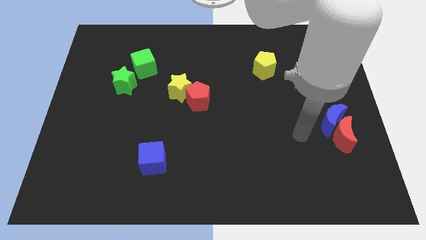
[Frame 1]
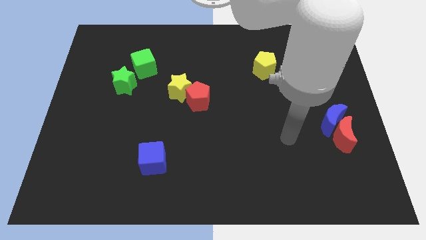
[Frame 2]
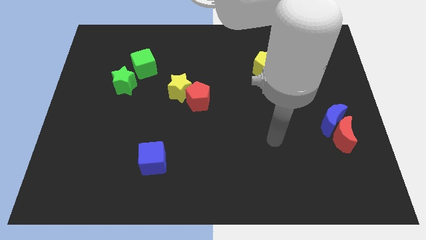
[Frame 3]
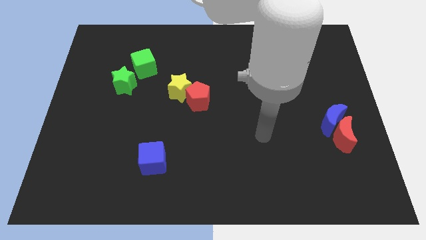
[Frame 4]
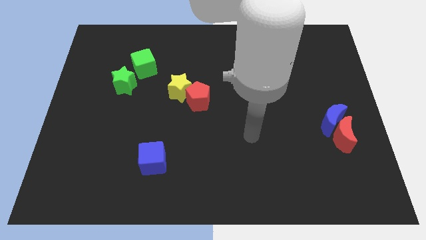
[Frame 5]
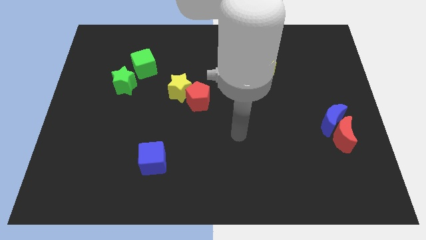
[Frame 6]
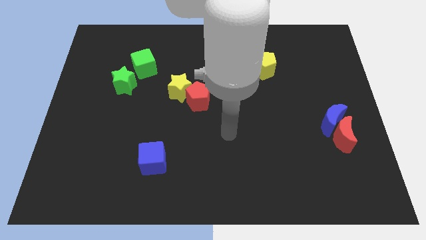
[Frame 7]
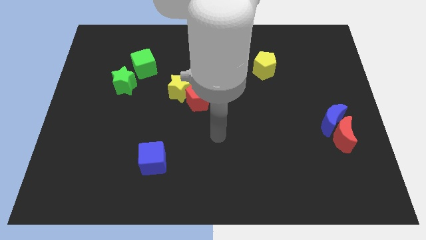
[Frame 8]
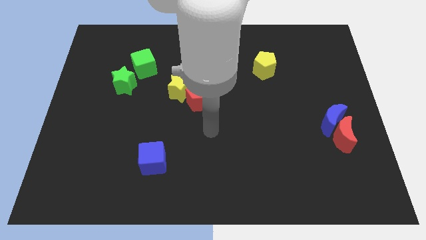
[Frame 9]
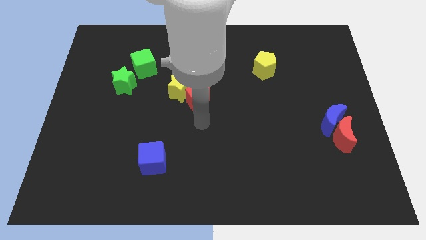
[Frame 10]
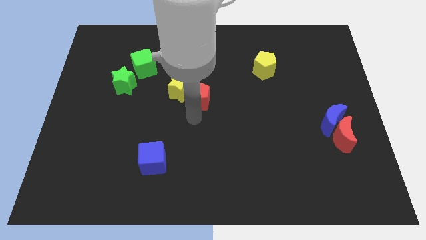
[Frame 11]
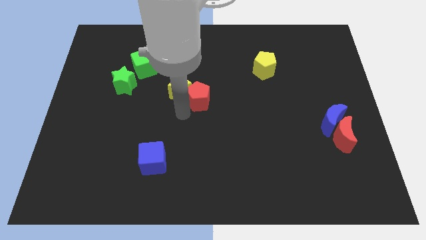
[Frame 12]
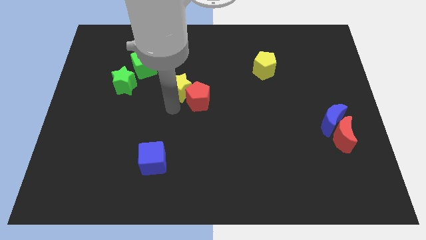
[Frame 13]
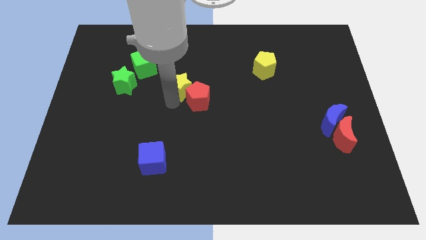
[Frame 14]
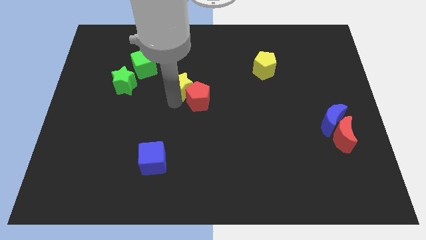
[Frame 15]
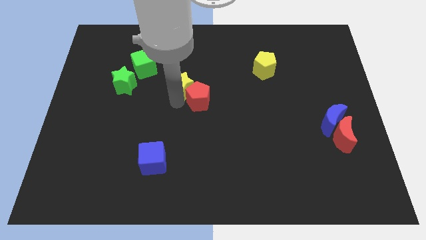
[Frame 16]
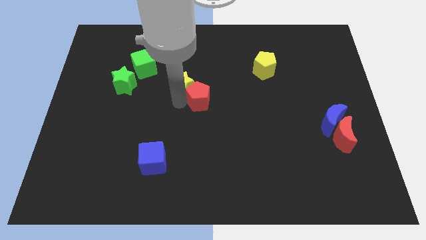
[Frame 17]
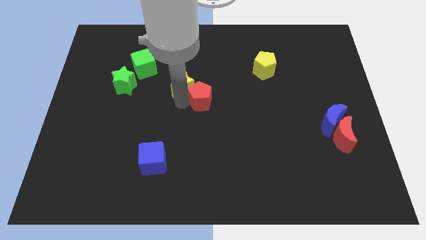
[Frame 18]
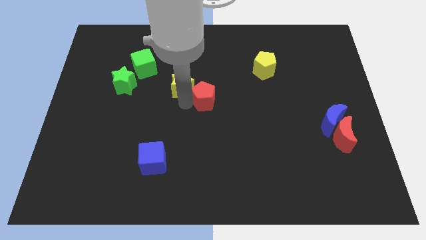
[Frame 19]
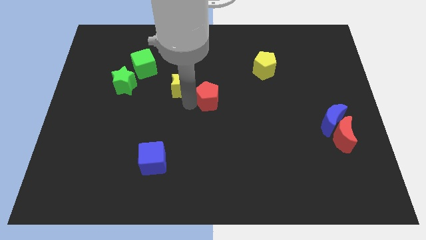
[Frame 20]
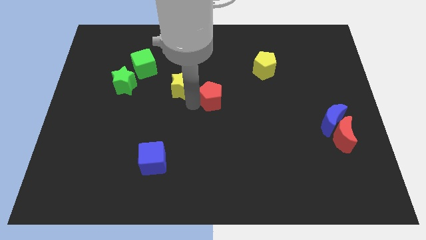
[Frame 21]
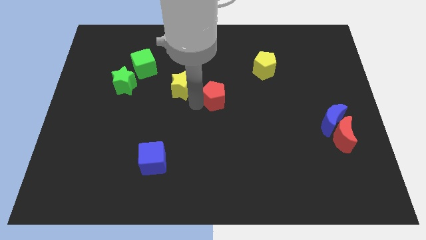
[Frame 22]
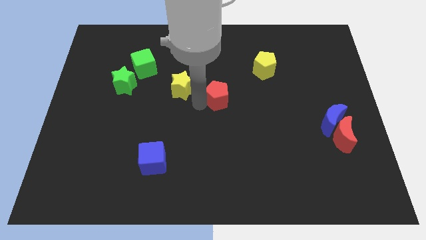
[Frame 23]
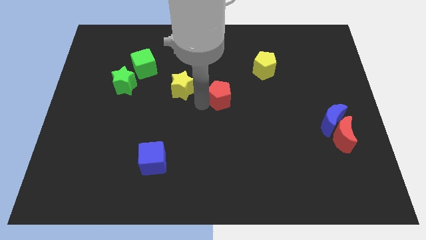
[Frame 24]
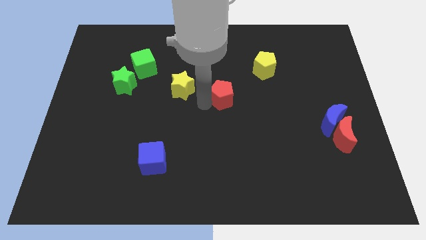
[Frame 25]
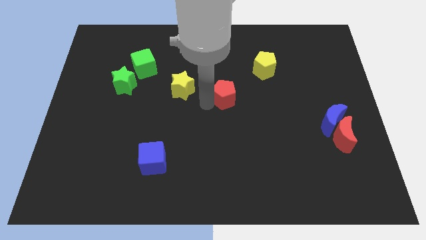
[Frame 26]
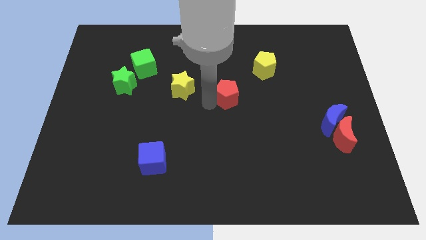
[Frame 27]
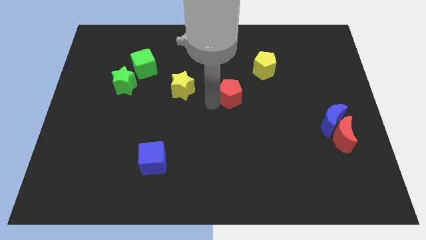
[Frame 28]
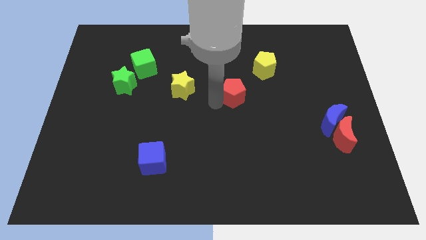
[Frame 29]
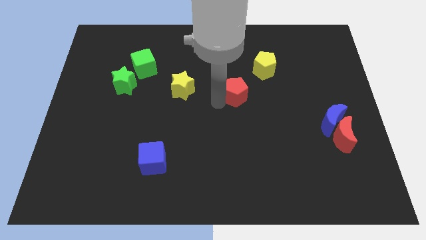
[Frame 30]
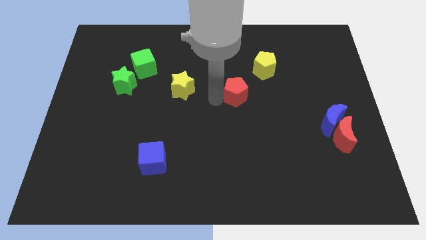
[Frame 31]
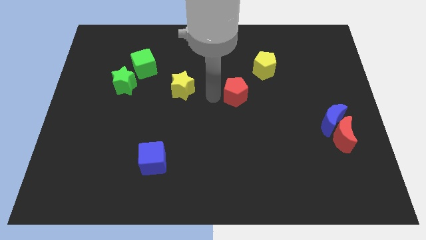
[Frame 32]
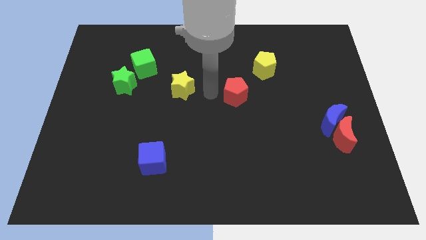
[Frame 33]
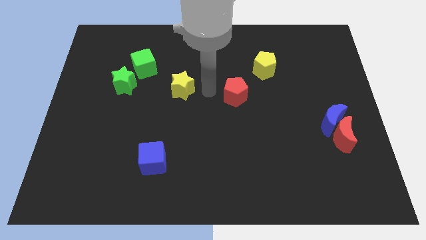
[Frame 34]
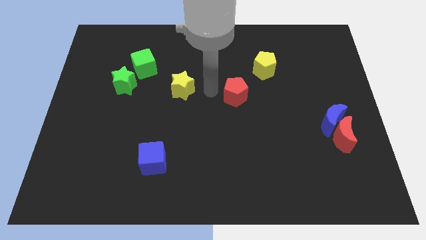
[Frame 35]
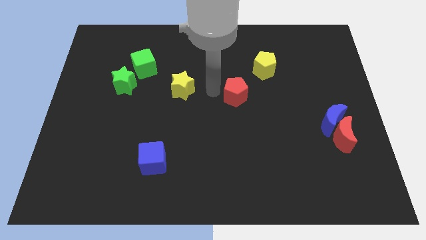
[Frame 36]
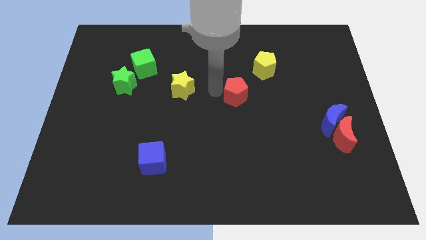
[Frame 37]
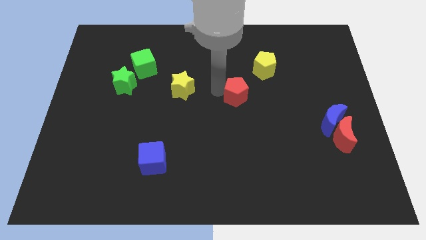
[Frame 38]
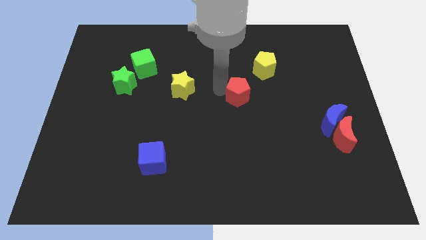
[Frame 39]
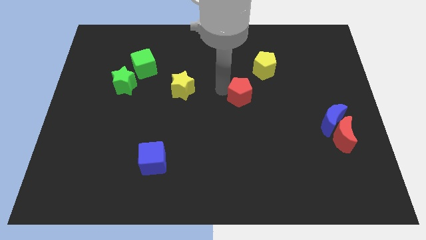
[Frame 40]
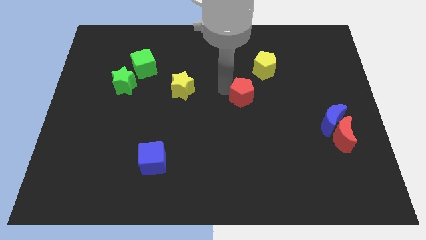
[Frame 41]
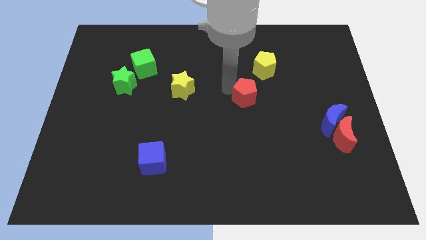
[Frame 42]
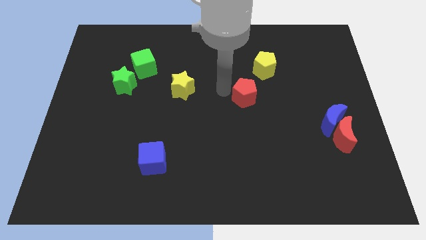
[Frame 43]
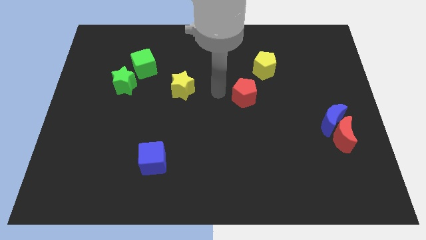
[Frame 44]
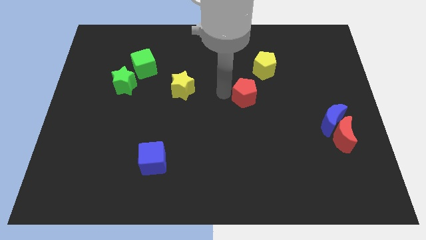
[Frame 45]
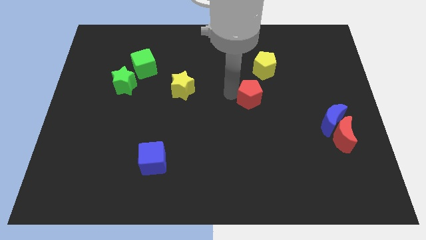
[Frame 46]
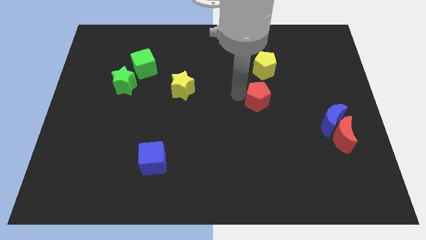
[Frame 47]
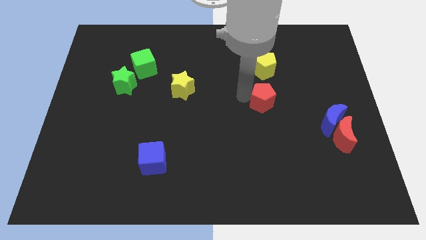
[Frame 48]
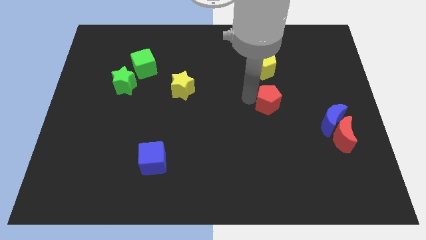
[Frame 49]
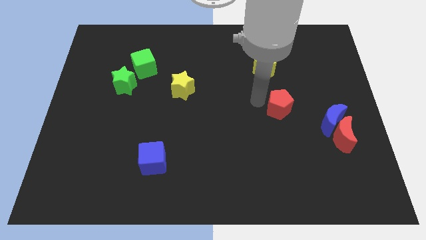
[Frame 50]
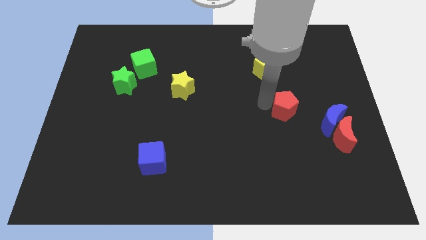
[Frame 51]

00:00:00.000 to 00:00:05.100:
slide the red pentagon right

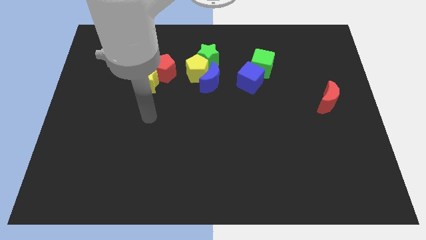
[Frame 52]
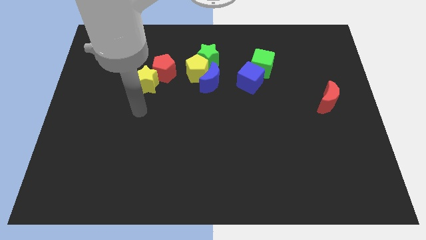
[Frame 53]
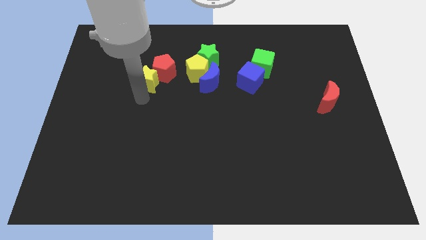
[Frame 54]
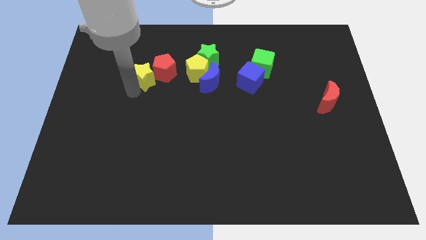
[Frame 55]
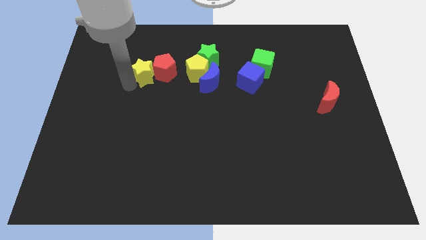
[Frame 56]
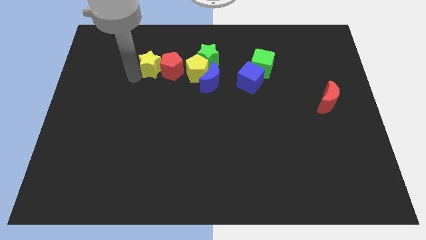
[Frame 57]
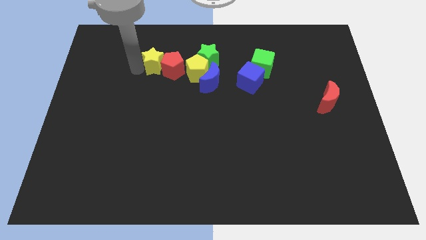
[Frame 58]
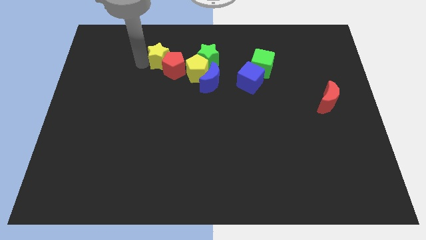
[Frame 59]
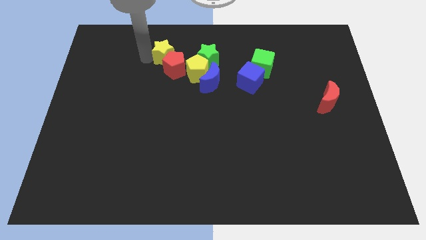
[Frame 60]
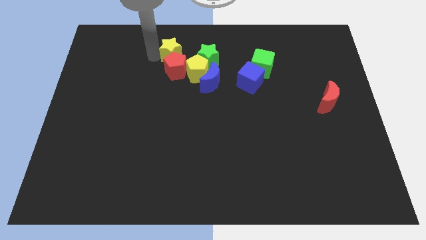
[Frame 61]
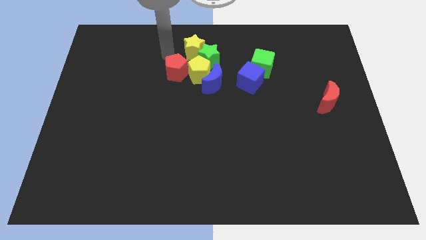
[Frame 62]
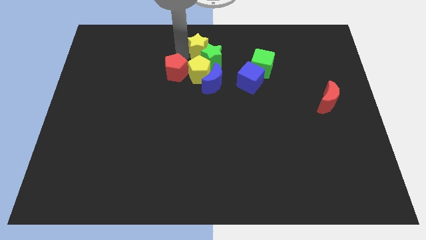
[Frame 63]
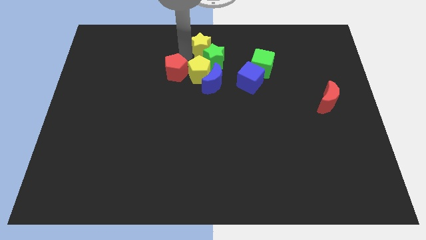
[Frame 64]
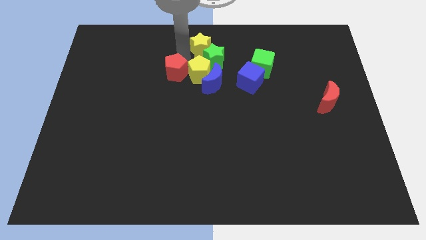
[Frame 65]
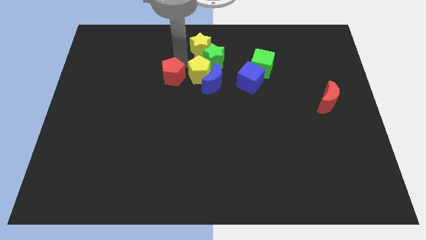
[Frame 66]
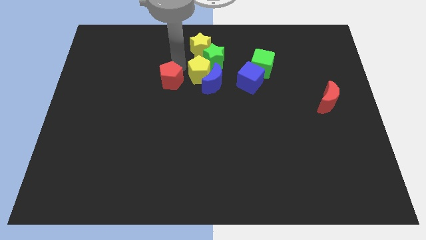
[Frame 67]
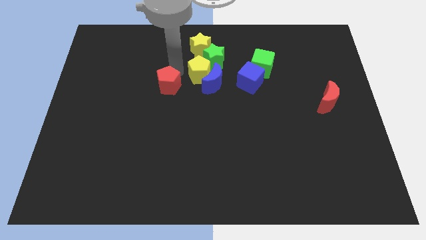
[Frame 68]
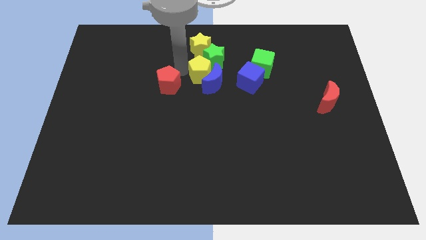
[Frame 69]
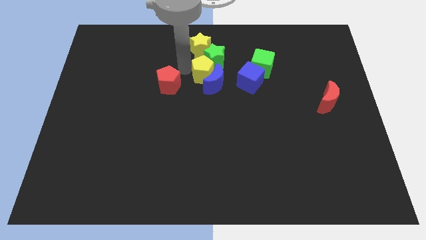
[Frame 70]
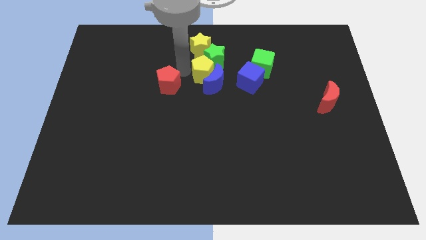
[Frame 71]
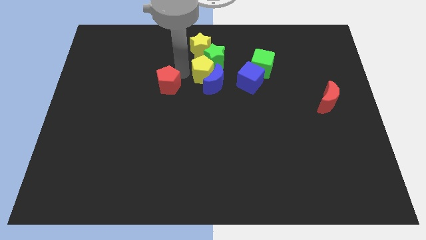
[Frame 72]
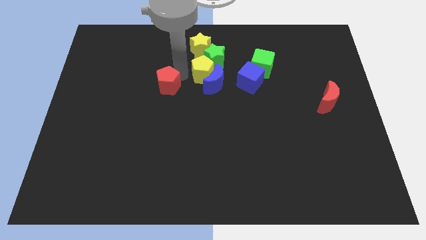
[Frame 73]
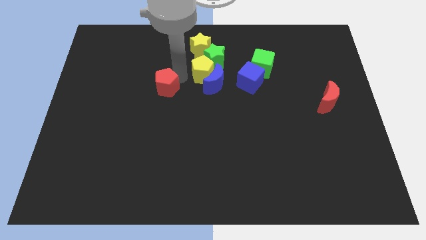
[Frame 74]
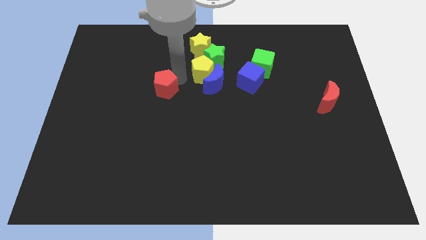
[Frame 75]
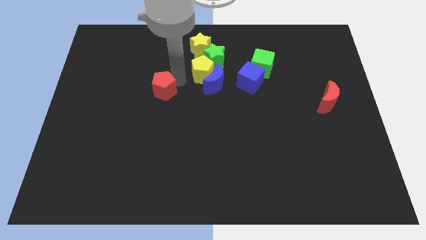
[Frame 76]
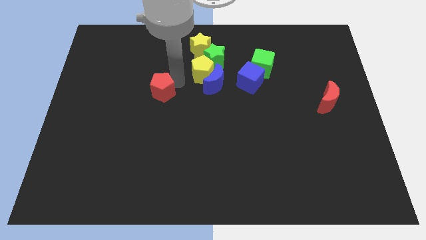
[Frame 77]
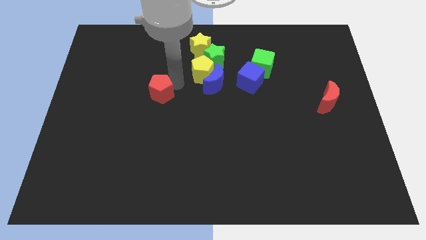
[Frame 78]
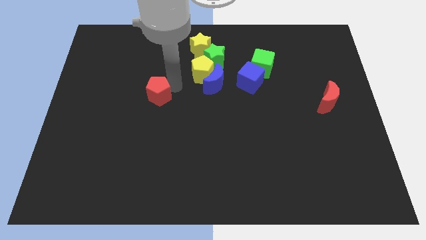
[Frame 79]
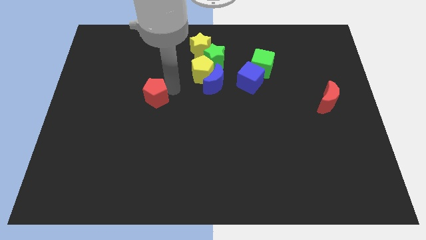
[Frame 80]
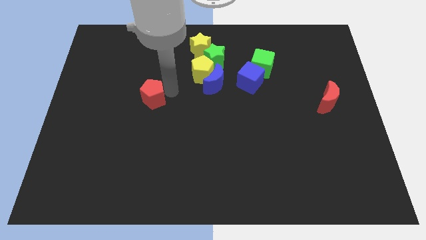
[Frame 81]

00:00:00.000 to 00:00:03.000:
move the red pentagon downwards and to the left a bit

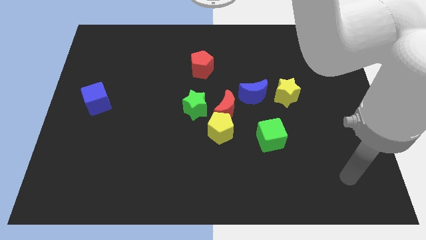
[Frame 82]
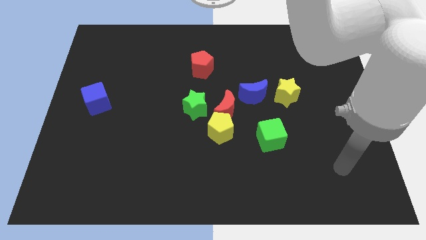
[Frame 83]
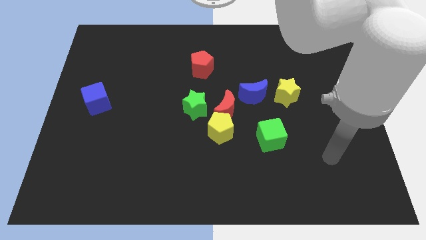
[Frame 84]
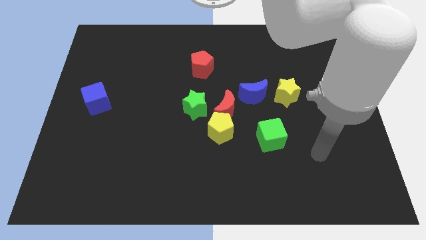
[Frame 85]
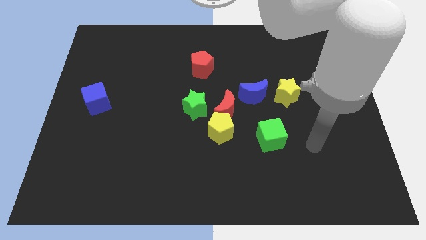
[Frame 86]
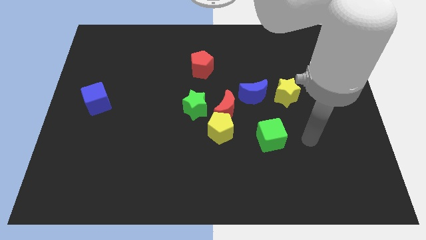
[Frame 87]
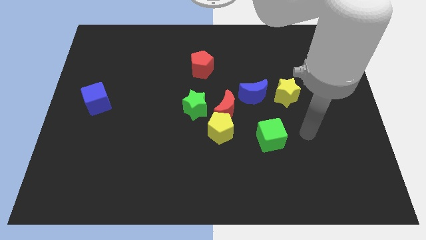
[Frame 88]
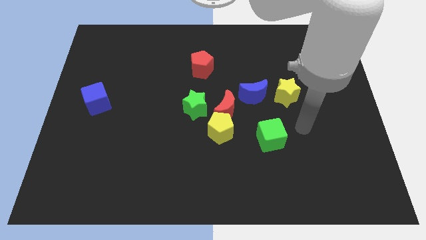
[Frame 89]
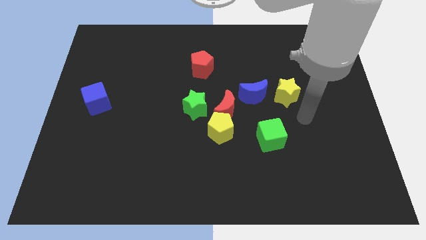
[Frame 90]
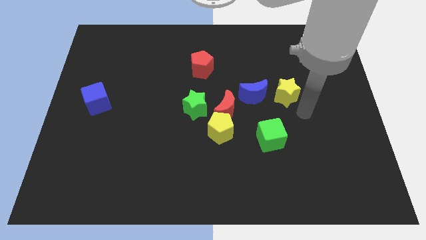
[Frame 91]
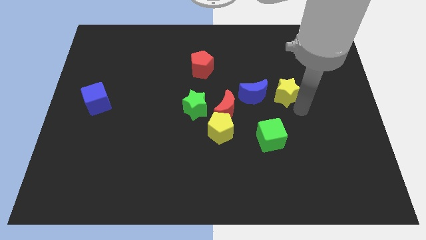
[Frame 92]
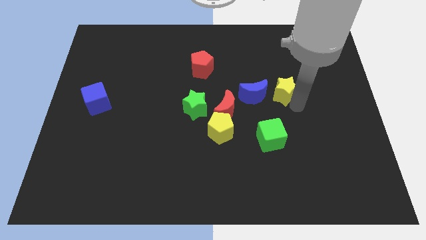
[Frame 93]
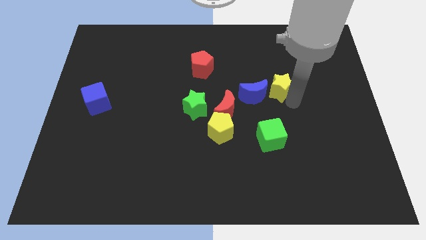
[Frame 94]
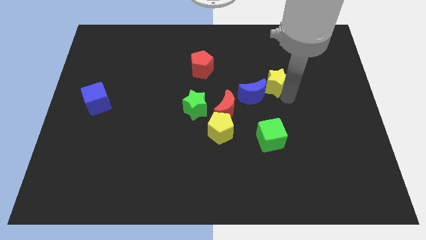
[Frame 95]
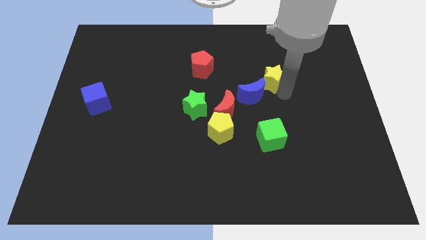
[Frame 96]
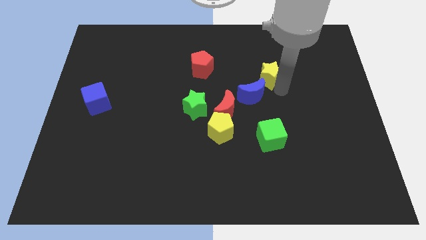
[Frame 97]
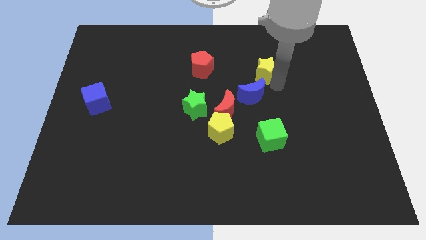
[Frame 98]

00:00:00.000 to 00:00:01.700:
push the yellow star diagonally up and to the left a bit
